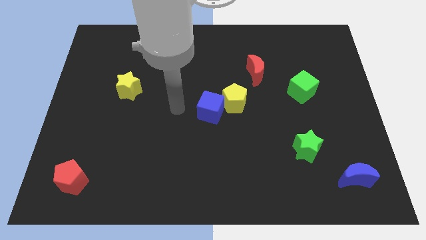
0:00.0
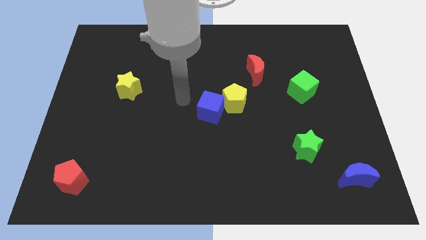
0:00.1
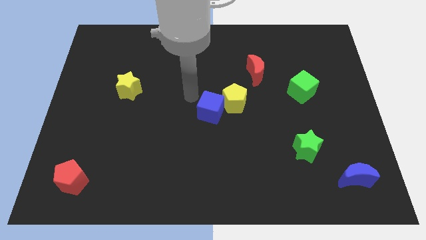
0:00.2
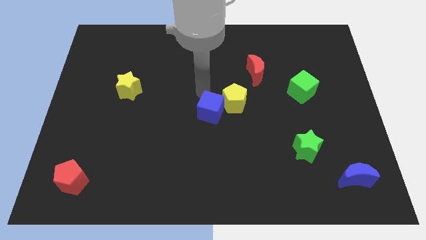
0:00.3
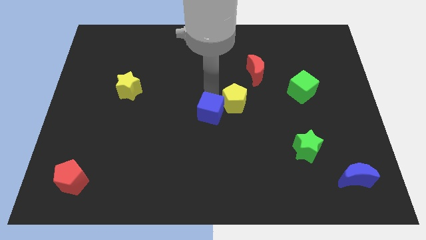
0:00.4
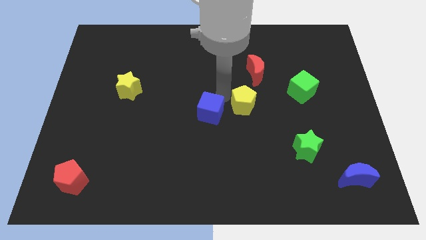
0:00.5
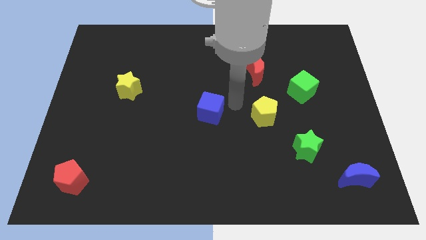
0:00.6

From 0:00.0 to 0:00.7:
move the blue cube away from the yellow pentagon

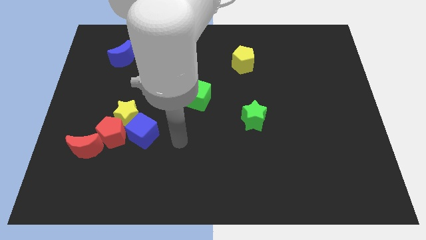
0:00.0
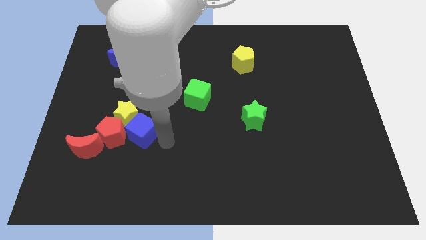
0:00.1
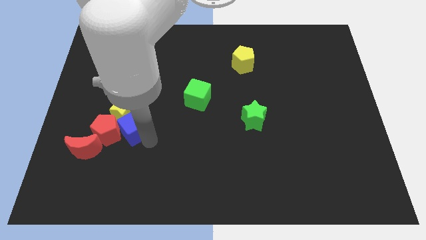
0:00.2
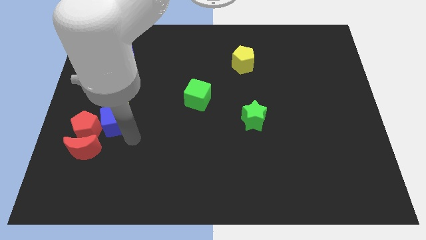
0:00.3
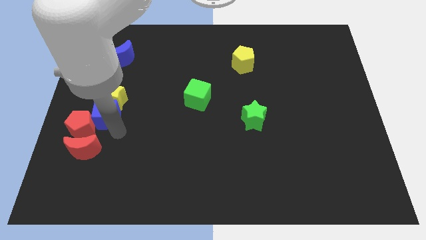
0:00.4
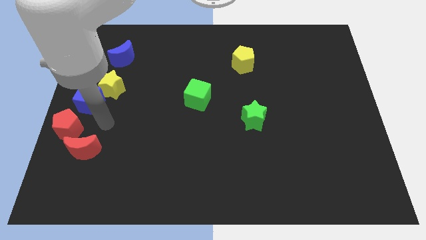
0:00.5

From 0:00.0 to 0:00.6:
move the yellow star away from the red pentagon and blue cube

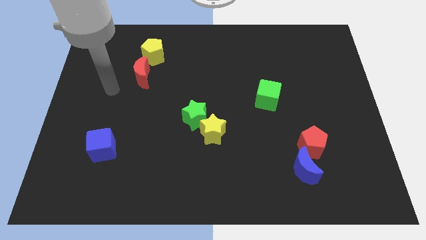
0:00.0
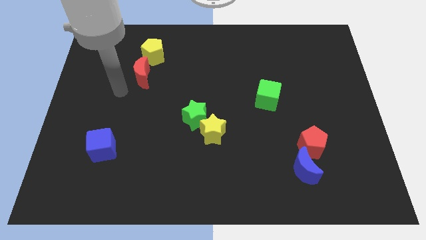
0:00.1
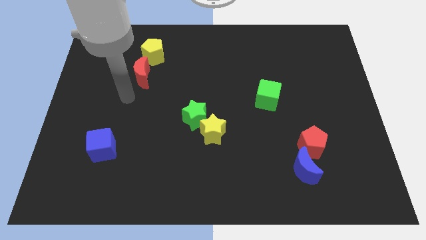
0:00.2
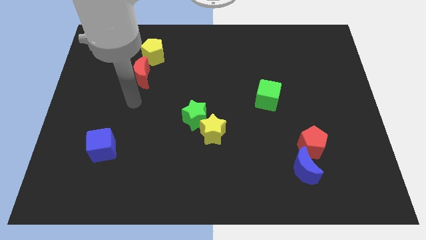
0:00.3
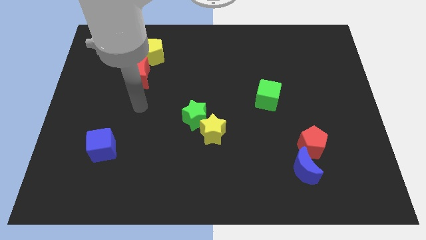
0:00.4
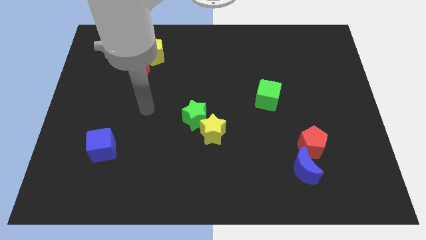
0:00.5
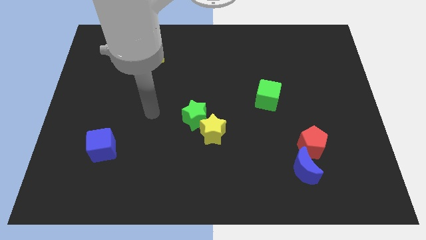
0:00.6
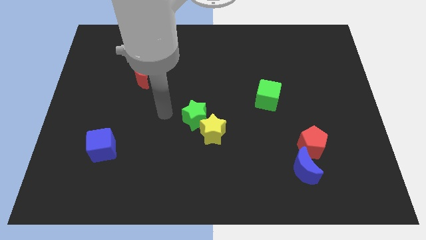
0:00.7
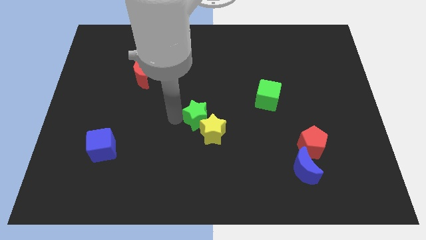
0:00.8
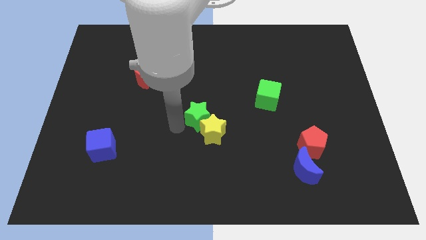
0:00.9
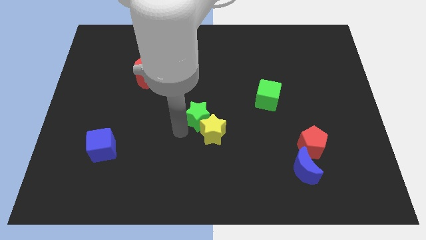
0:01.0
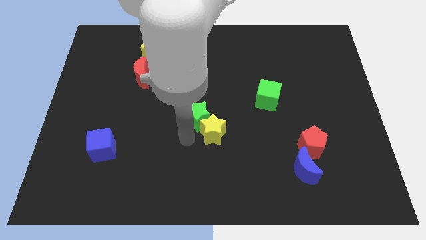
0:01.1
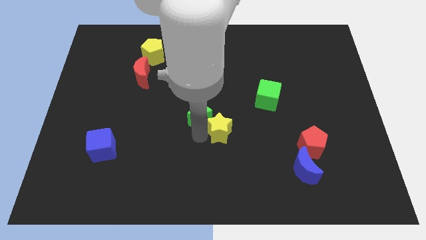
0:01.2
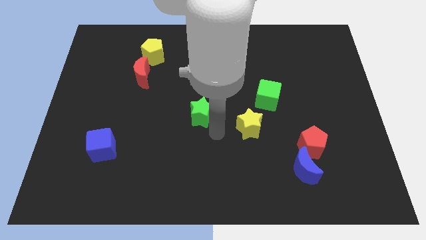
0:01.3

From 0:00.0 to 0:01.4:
pull the green star apart from the yellow star

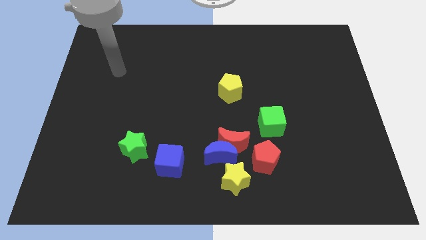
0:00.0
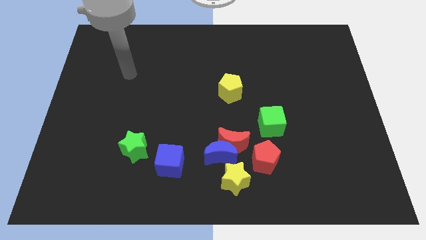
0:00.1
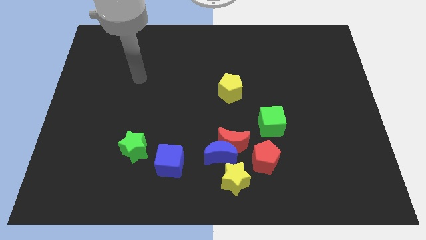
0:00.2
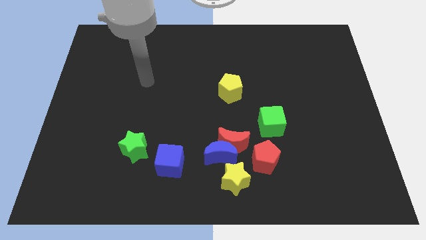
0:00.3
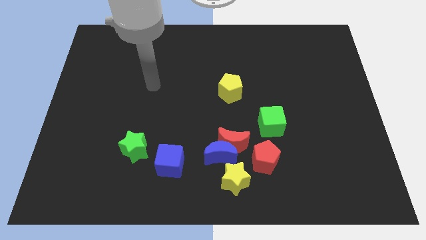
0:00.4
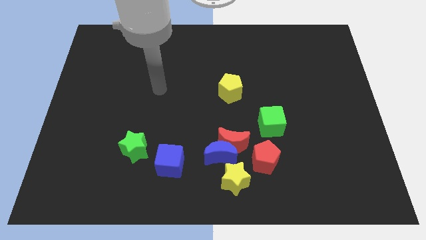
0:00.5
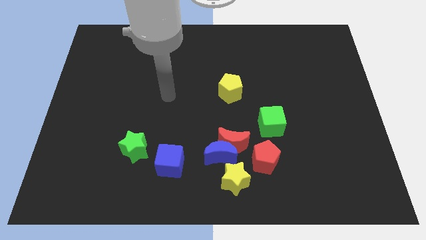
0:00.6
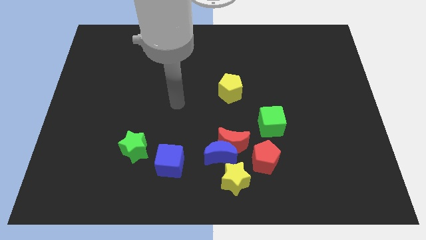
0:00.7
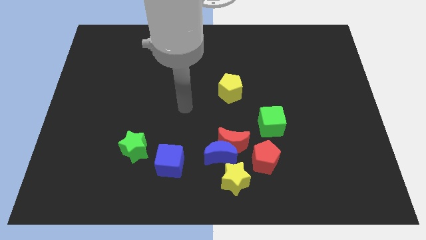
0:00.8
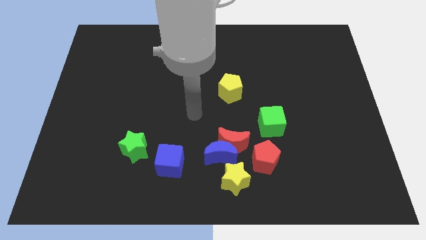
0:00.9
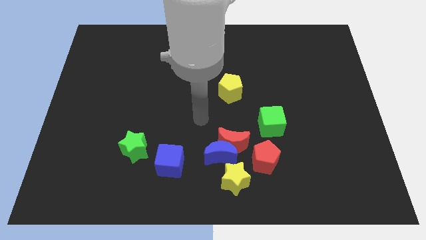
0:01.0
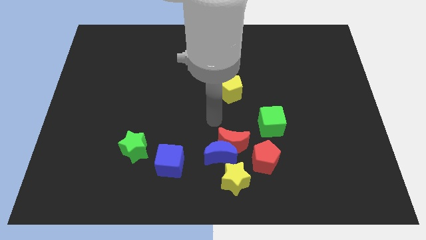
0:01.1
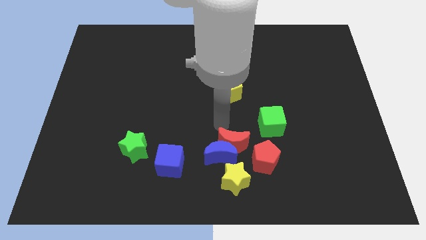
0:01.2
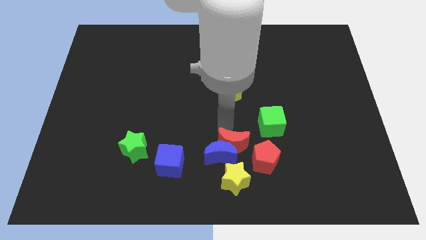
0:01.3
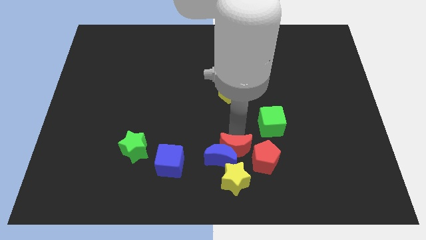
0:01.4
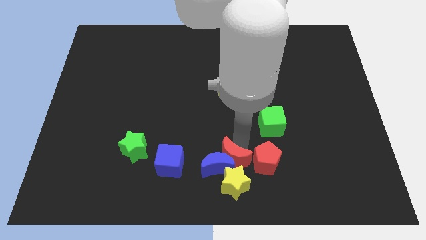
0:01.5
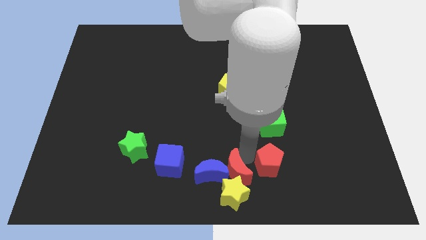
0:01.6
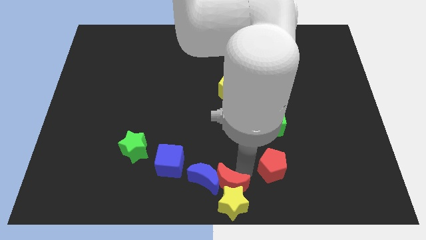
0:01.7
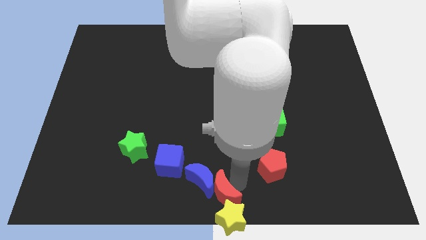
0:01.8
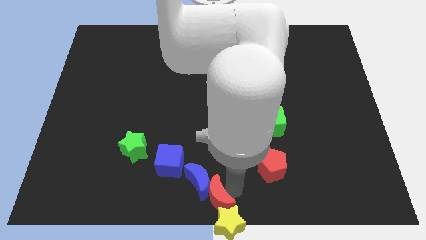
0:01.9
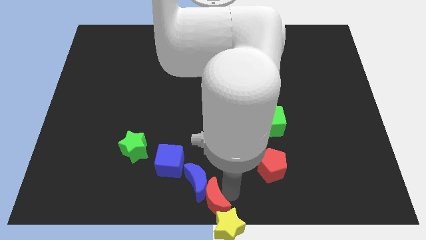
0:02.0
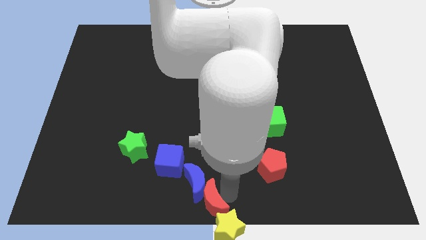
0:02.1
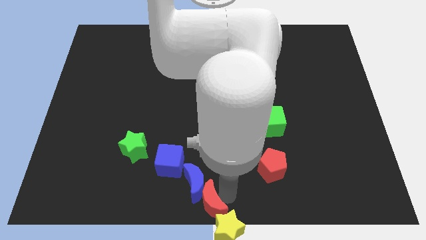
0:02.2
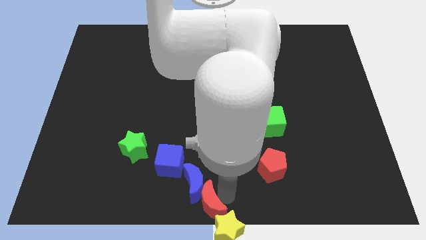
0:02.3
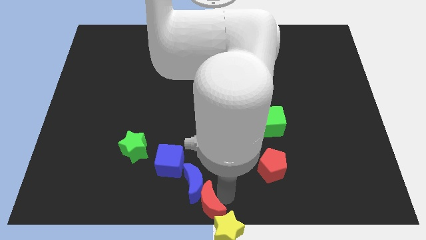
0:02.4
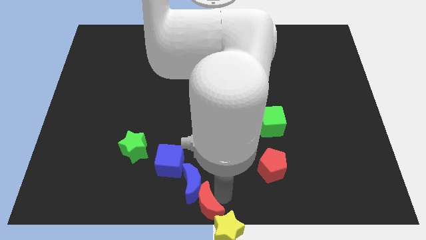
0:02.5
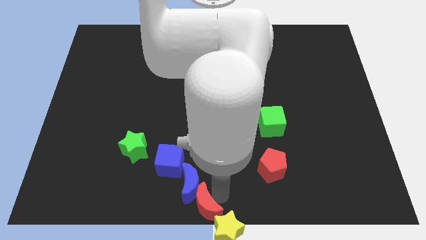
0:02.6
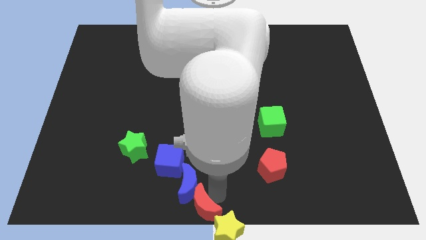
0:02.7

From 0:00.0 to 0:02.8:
pull the blue moon apart from the clump

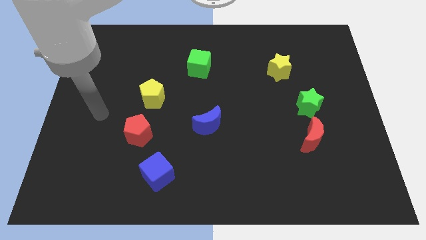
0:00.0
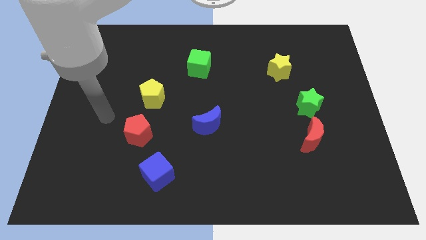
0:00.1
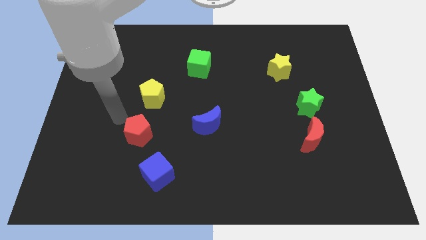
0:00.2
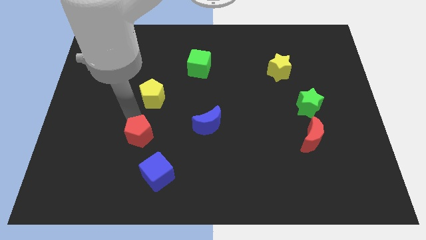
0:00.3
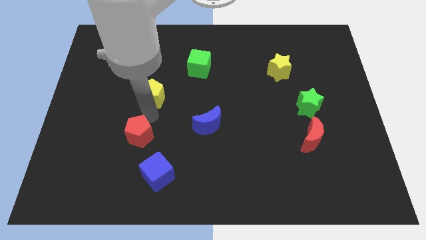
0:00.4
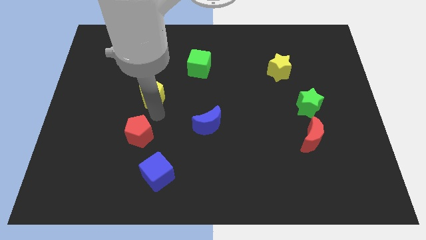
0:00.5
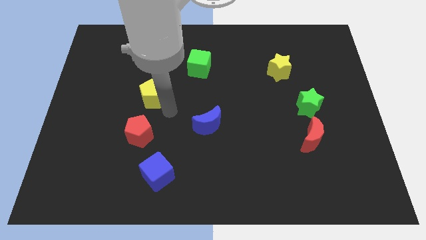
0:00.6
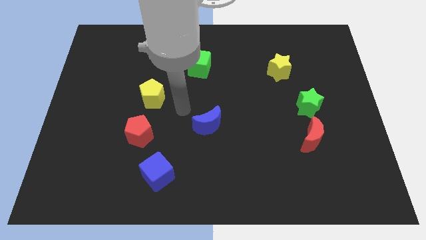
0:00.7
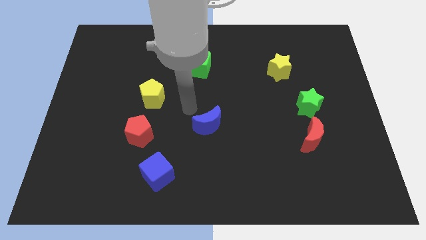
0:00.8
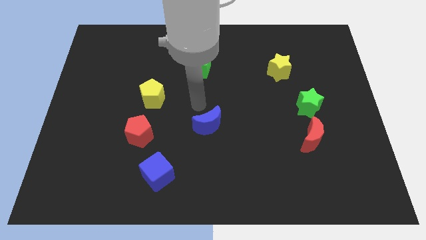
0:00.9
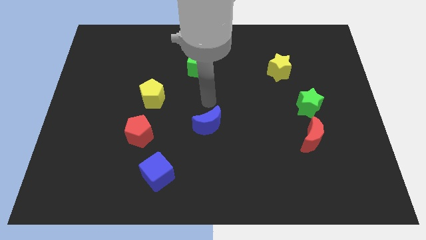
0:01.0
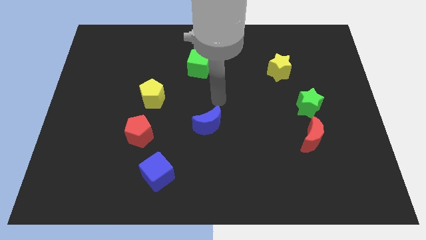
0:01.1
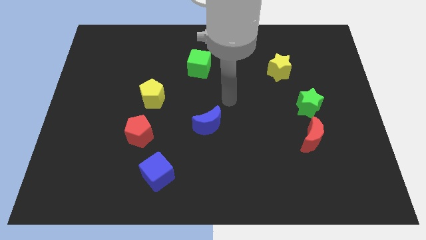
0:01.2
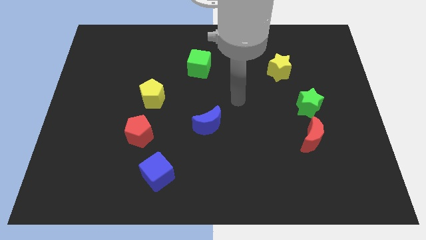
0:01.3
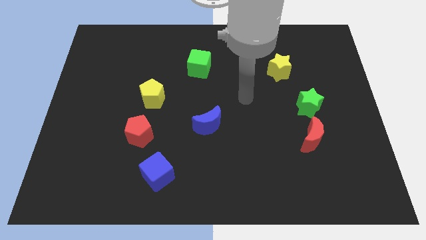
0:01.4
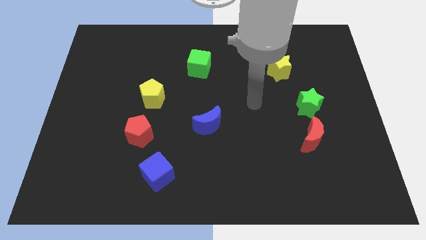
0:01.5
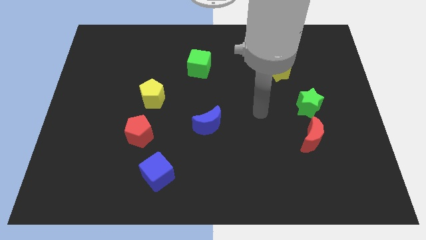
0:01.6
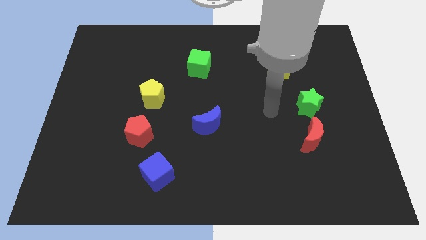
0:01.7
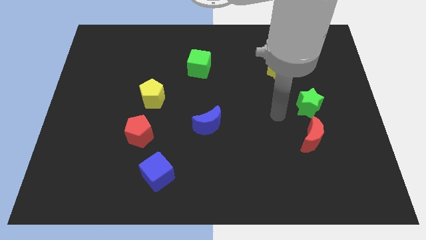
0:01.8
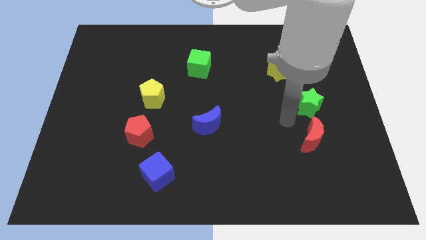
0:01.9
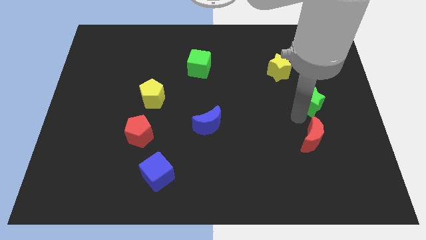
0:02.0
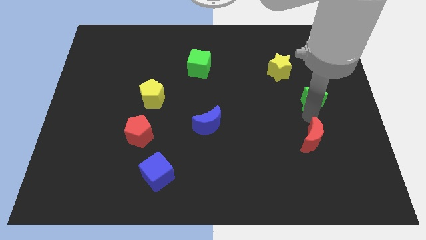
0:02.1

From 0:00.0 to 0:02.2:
separate the red moon from the green star

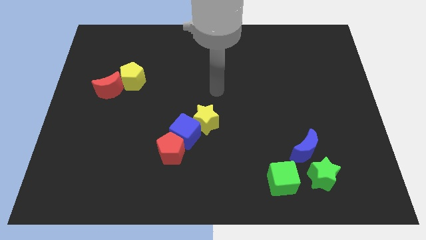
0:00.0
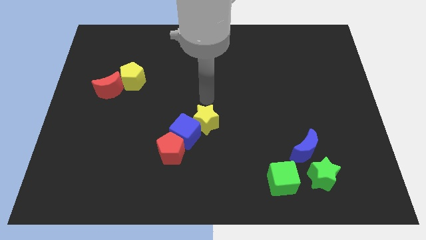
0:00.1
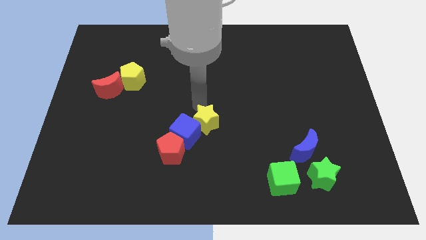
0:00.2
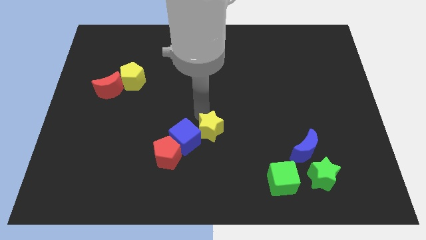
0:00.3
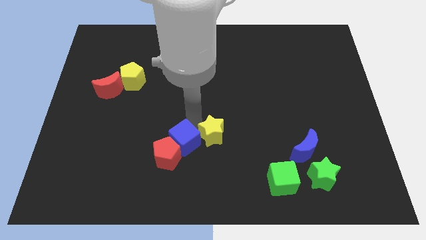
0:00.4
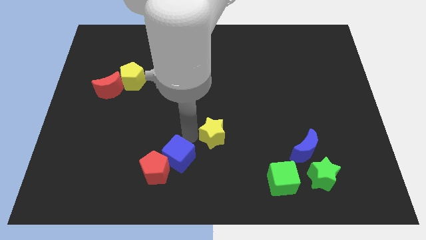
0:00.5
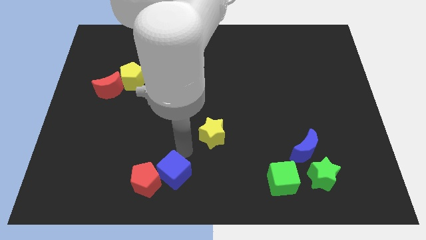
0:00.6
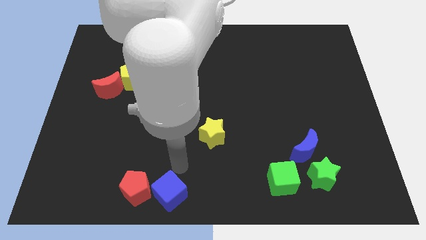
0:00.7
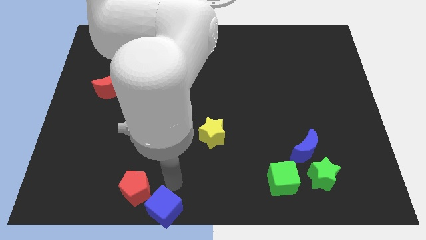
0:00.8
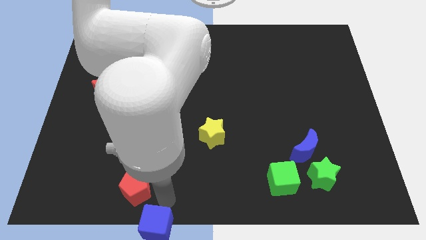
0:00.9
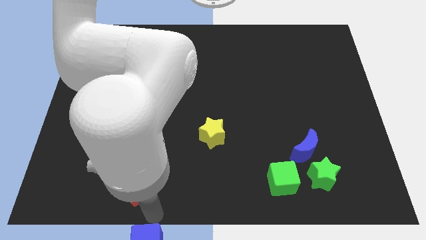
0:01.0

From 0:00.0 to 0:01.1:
pull the red pentagon apart from the blue cube

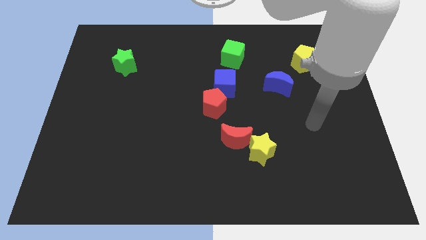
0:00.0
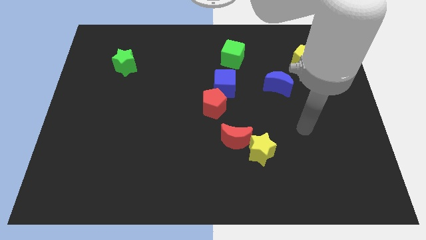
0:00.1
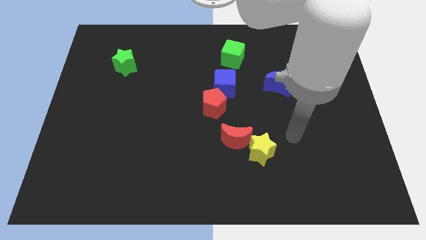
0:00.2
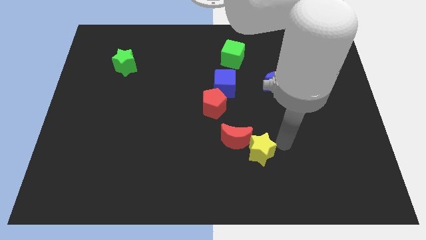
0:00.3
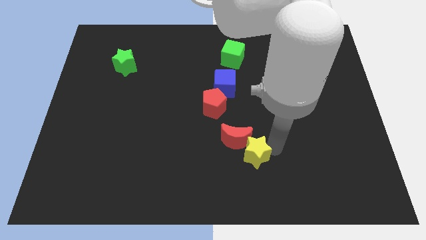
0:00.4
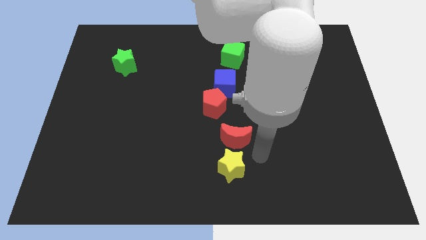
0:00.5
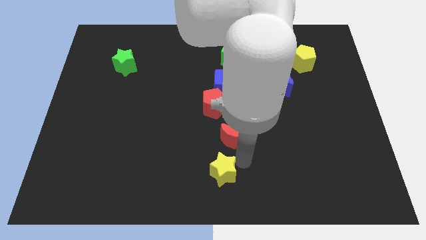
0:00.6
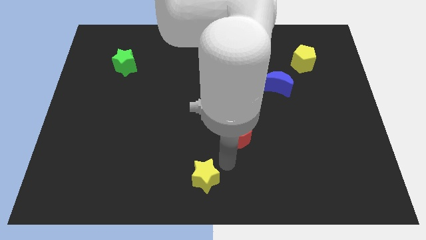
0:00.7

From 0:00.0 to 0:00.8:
separate the red moon from the yellow star
